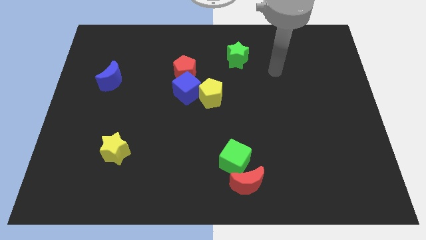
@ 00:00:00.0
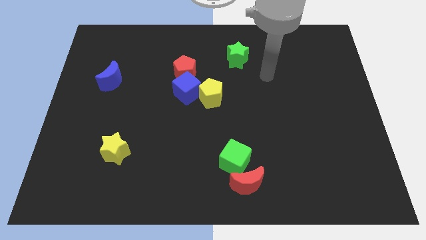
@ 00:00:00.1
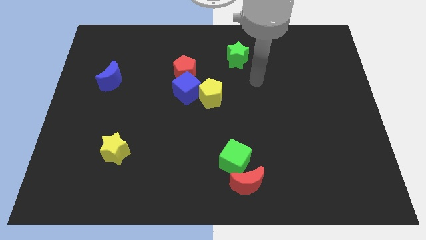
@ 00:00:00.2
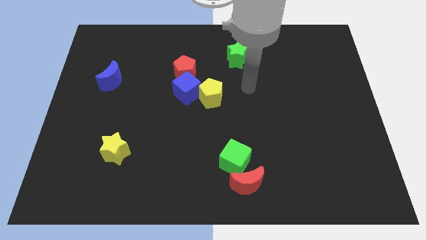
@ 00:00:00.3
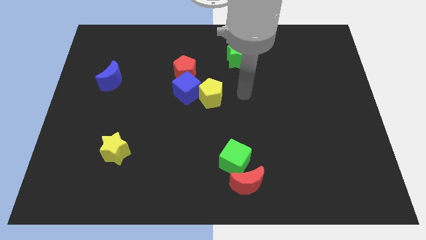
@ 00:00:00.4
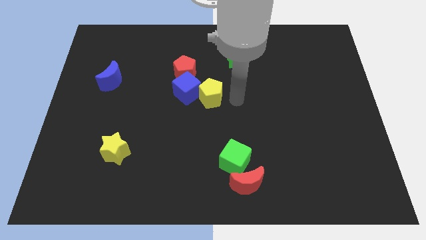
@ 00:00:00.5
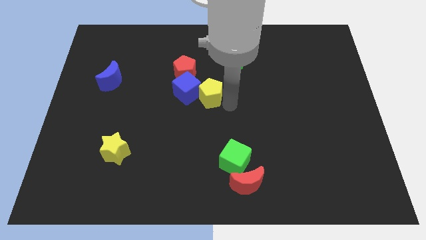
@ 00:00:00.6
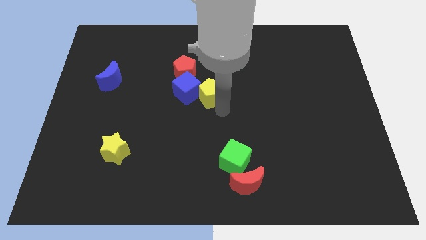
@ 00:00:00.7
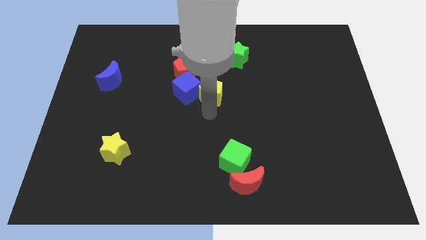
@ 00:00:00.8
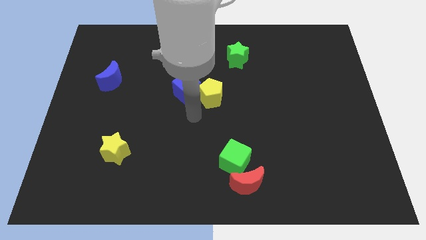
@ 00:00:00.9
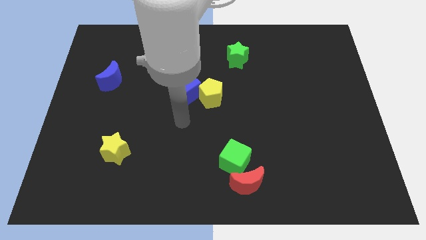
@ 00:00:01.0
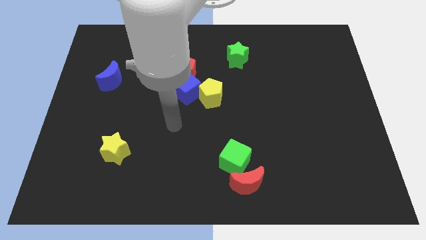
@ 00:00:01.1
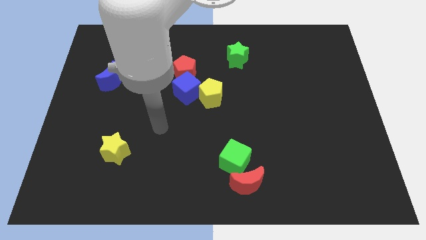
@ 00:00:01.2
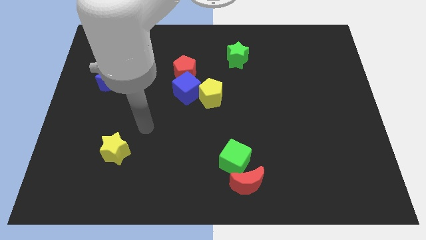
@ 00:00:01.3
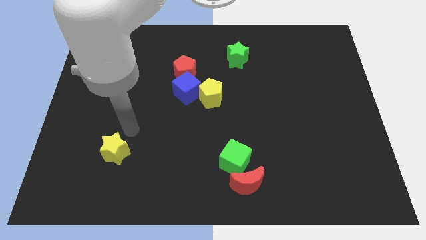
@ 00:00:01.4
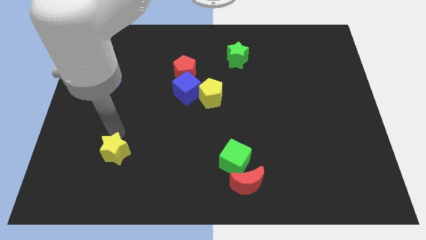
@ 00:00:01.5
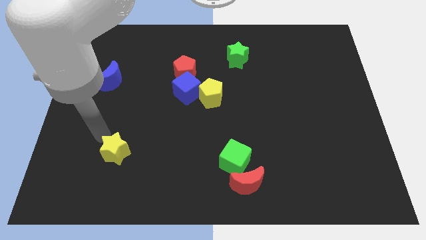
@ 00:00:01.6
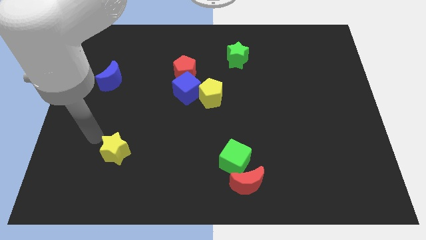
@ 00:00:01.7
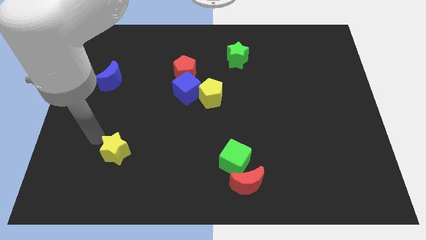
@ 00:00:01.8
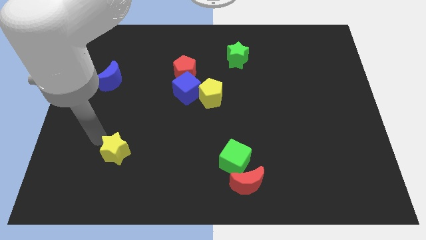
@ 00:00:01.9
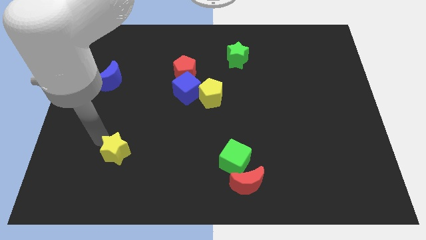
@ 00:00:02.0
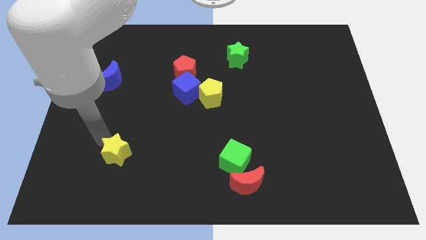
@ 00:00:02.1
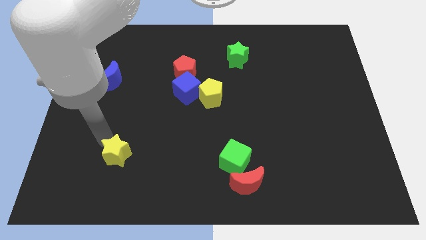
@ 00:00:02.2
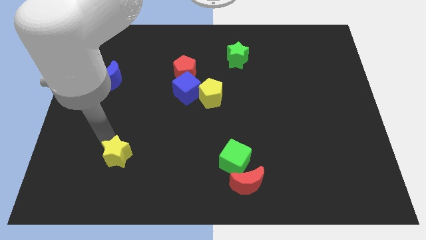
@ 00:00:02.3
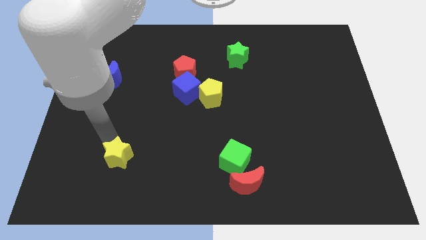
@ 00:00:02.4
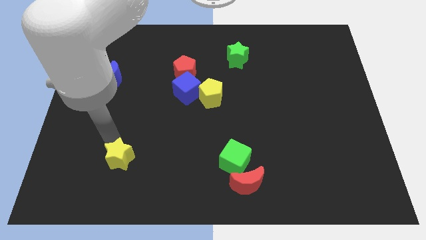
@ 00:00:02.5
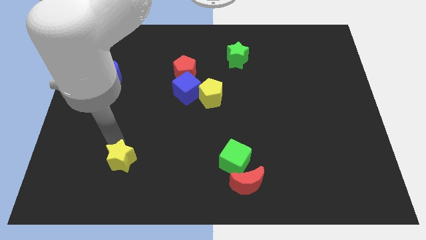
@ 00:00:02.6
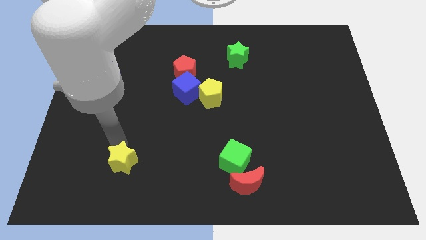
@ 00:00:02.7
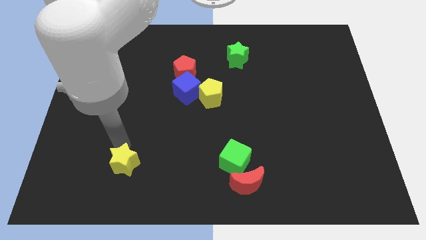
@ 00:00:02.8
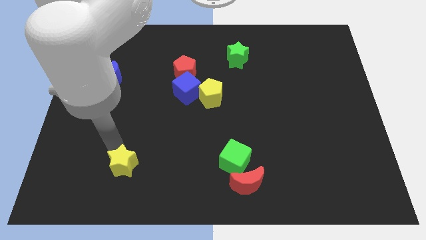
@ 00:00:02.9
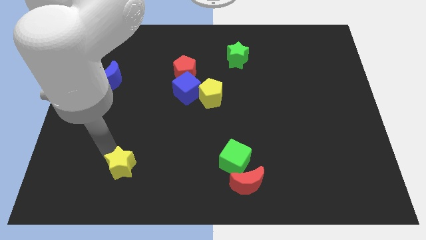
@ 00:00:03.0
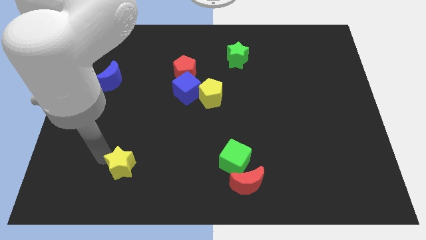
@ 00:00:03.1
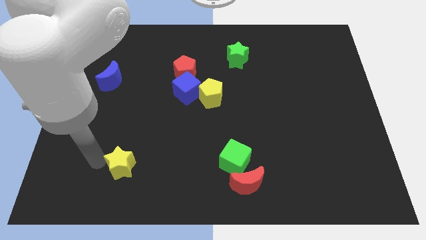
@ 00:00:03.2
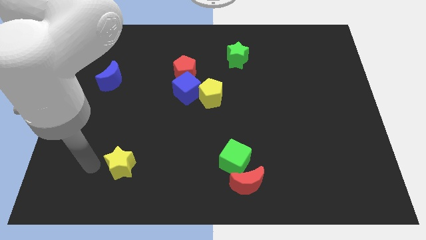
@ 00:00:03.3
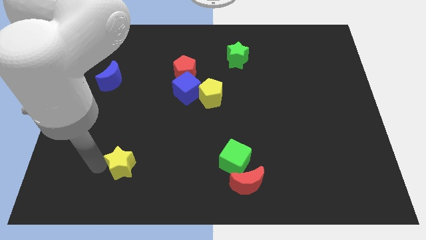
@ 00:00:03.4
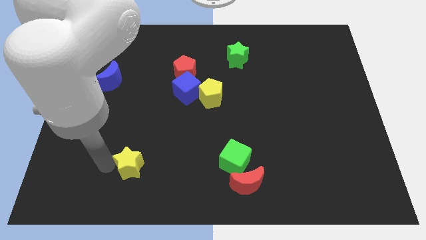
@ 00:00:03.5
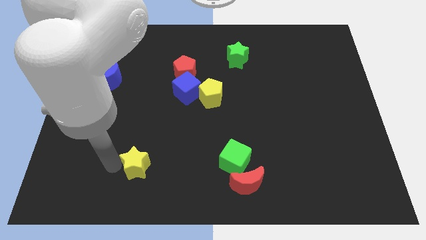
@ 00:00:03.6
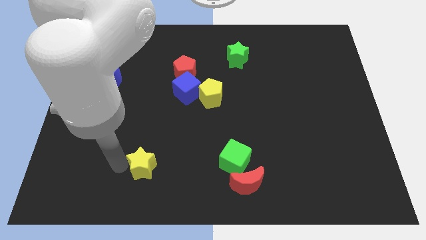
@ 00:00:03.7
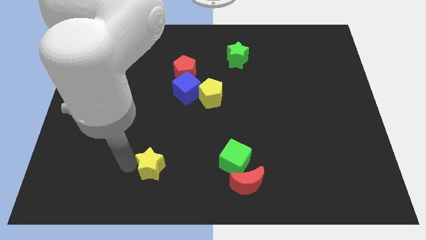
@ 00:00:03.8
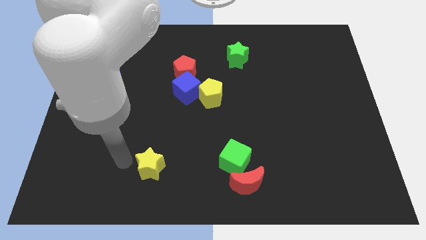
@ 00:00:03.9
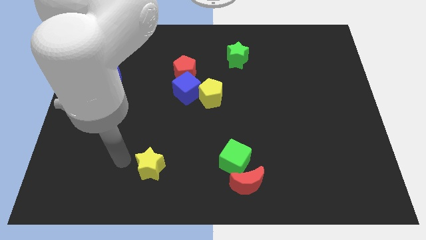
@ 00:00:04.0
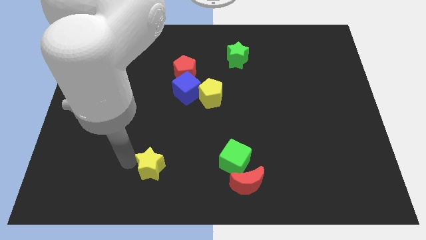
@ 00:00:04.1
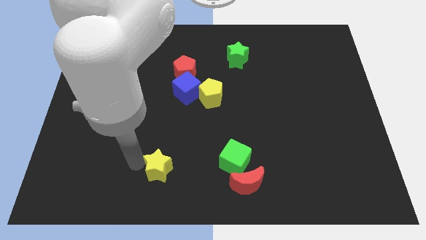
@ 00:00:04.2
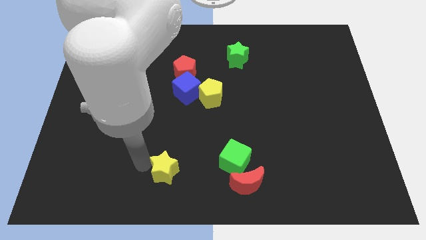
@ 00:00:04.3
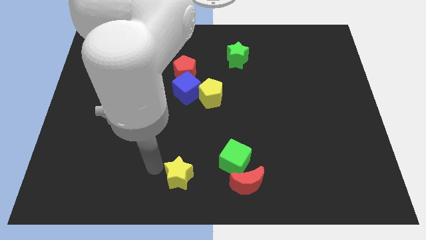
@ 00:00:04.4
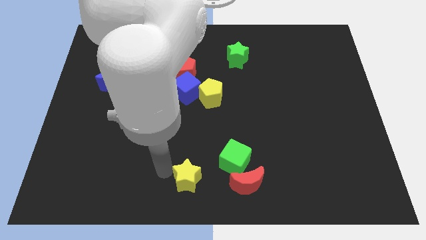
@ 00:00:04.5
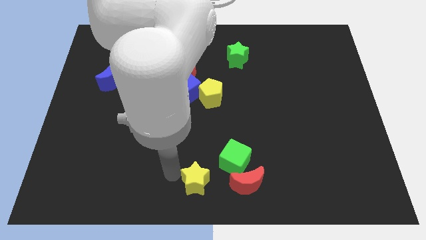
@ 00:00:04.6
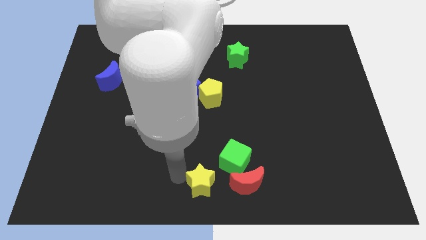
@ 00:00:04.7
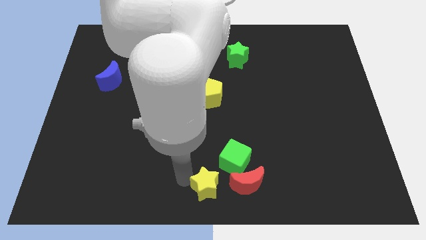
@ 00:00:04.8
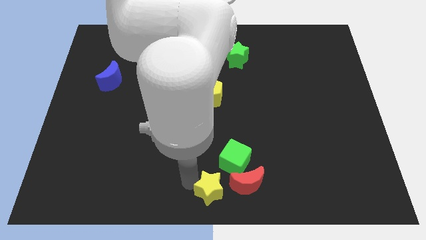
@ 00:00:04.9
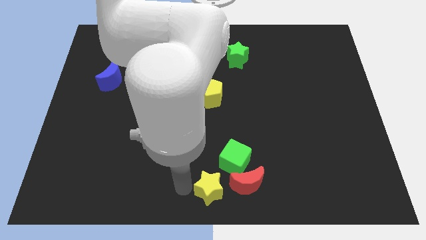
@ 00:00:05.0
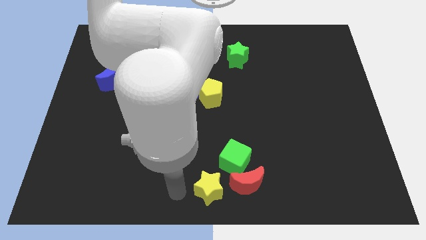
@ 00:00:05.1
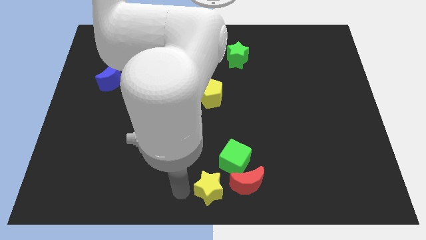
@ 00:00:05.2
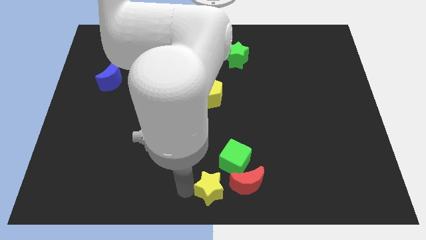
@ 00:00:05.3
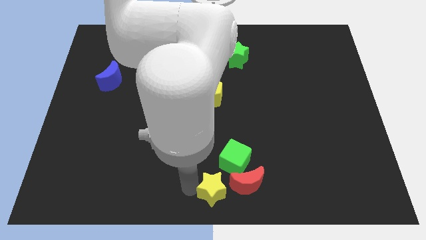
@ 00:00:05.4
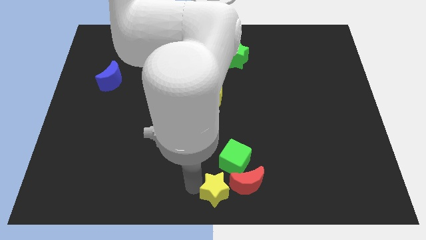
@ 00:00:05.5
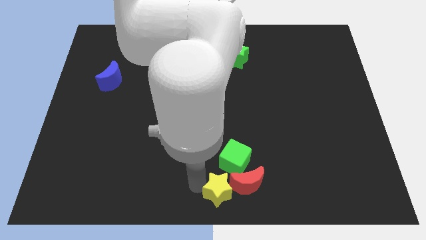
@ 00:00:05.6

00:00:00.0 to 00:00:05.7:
put the yellow star next to the red moon

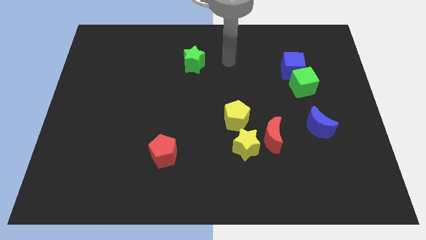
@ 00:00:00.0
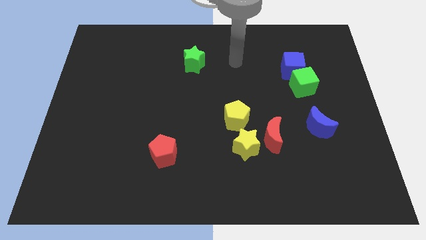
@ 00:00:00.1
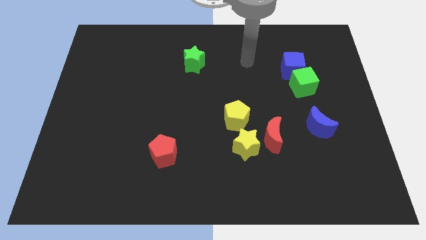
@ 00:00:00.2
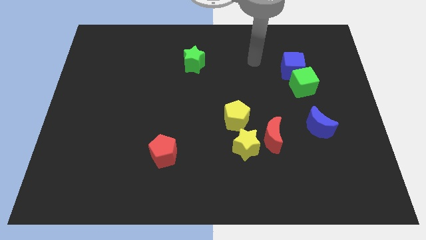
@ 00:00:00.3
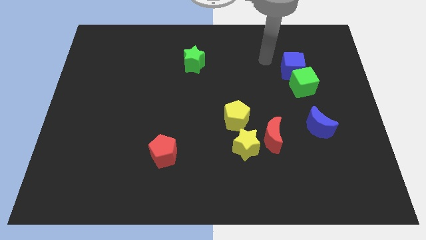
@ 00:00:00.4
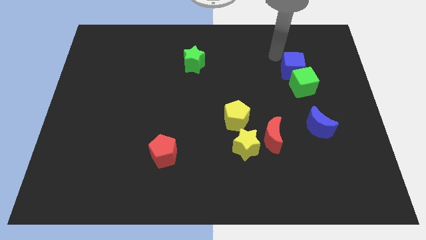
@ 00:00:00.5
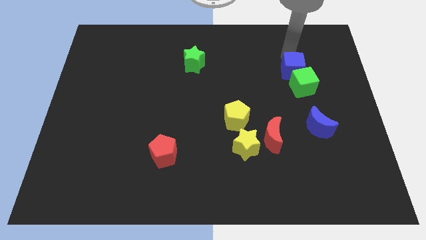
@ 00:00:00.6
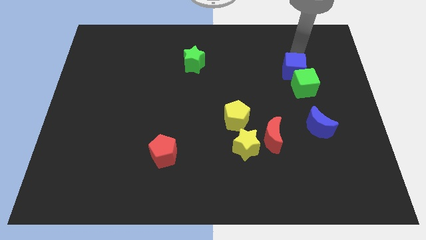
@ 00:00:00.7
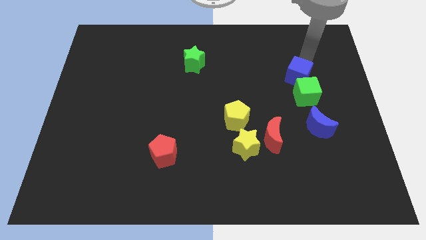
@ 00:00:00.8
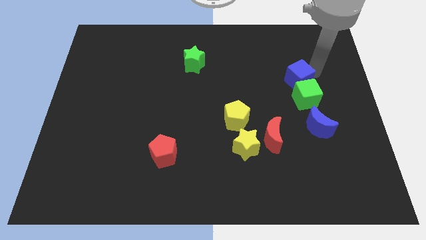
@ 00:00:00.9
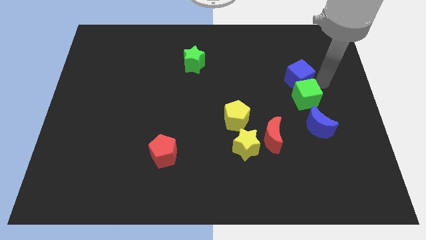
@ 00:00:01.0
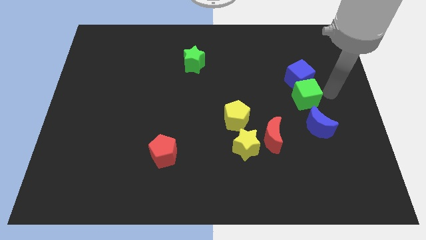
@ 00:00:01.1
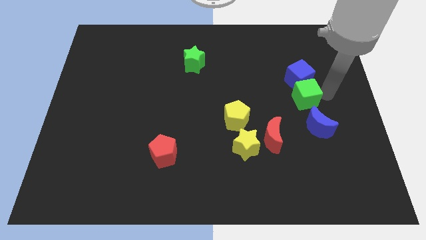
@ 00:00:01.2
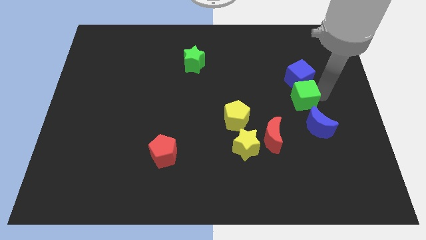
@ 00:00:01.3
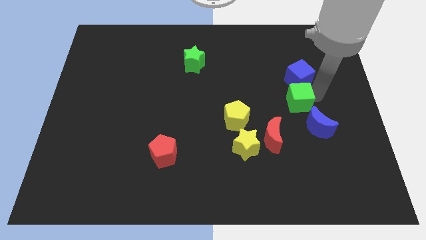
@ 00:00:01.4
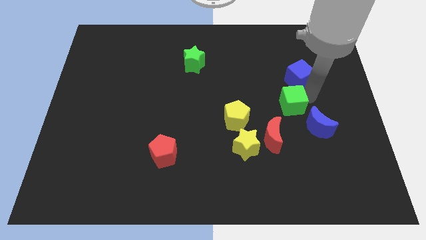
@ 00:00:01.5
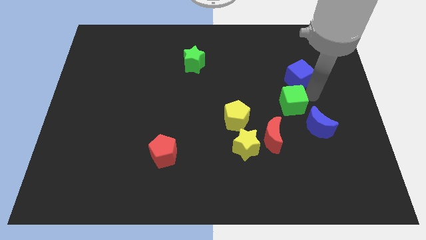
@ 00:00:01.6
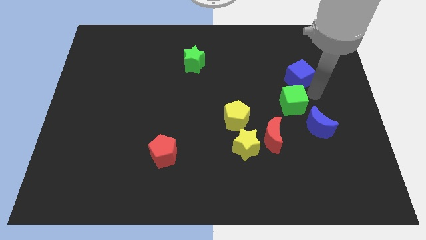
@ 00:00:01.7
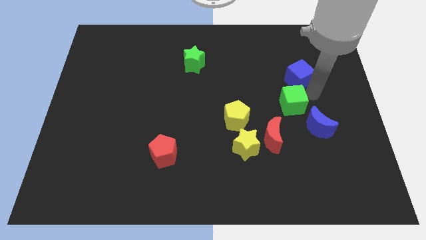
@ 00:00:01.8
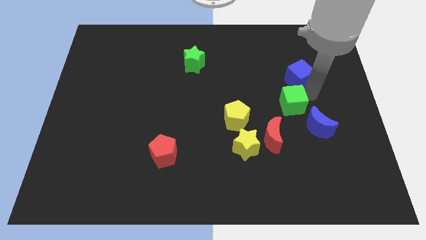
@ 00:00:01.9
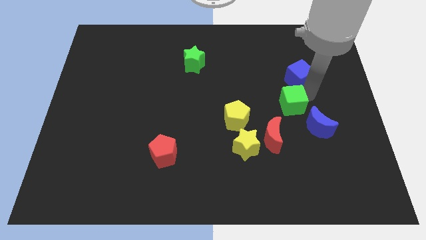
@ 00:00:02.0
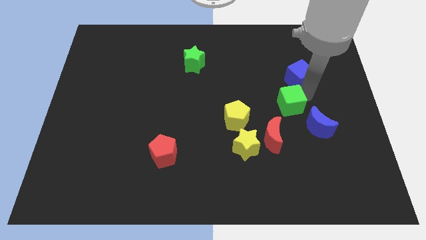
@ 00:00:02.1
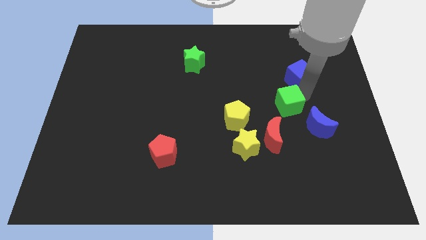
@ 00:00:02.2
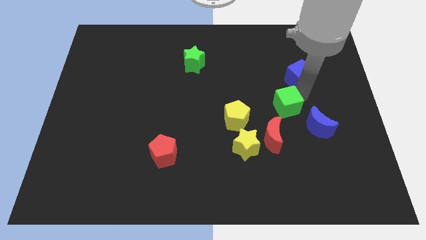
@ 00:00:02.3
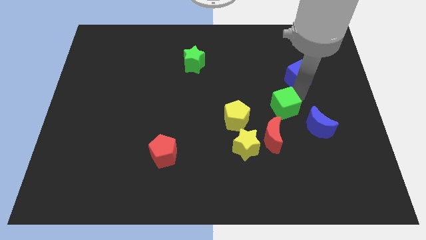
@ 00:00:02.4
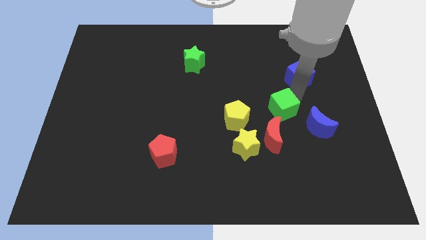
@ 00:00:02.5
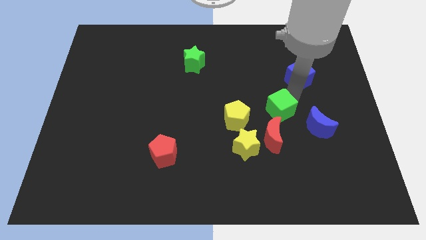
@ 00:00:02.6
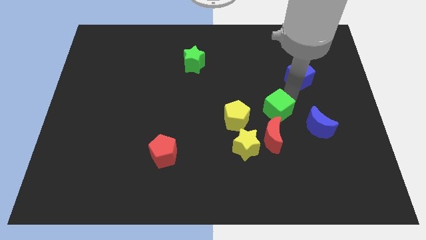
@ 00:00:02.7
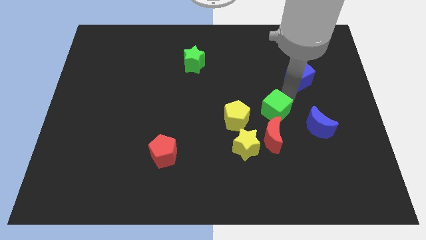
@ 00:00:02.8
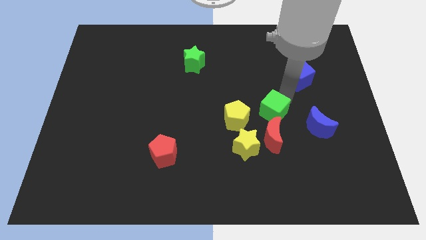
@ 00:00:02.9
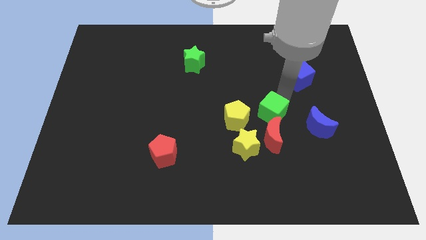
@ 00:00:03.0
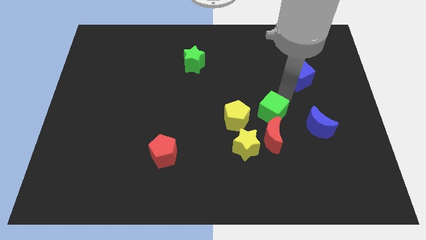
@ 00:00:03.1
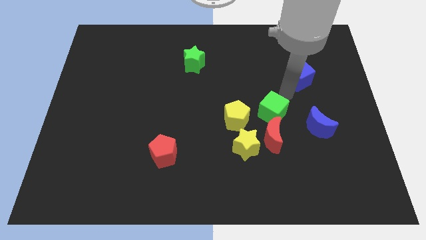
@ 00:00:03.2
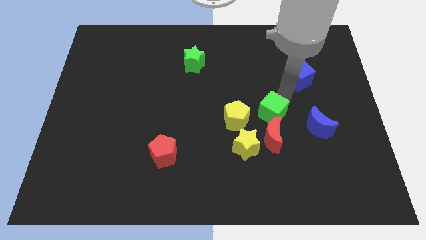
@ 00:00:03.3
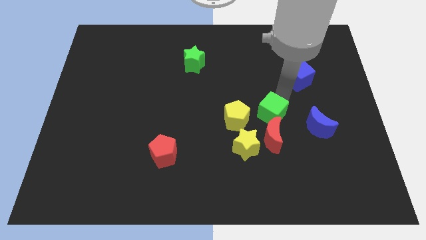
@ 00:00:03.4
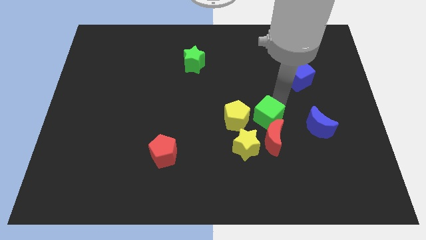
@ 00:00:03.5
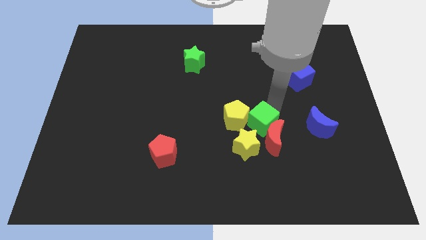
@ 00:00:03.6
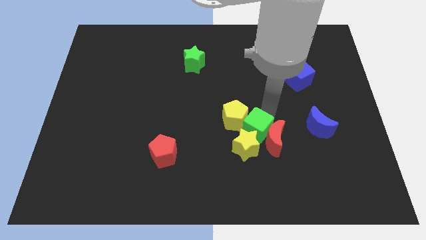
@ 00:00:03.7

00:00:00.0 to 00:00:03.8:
put the green cube to the yellow star
